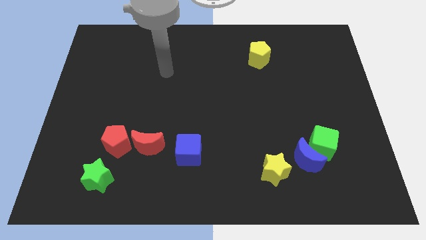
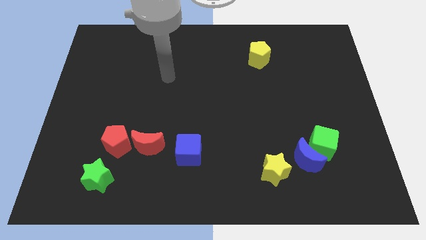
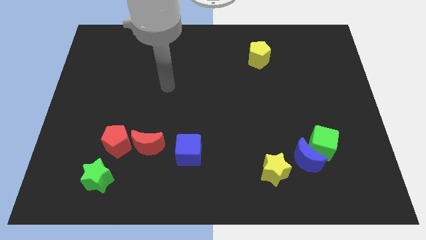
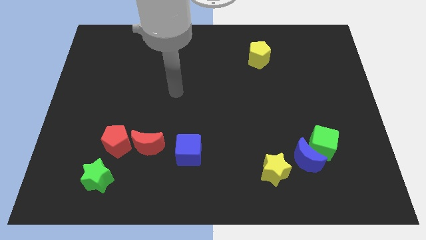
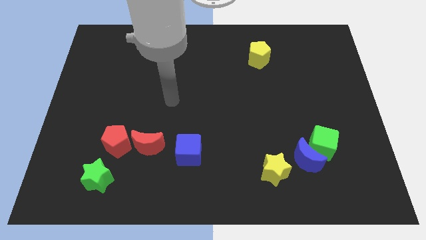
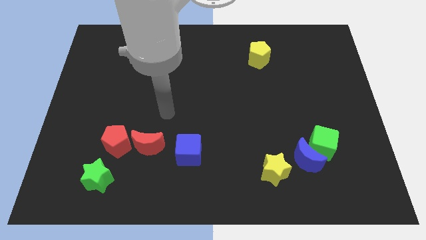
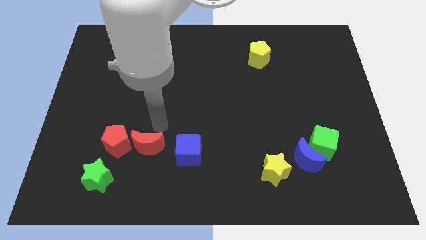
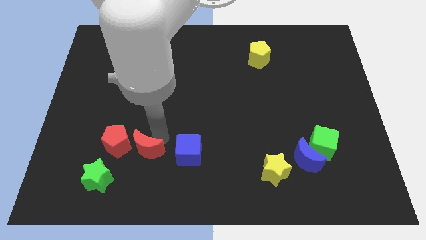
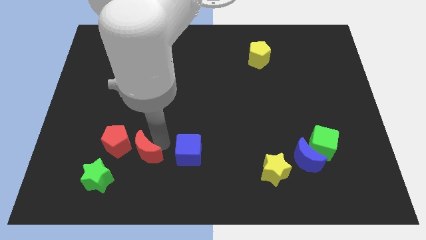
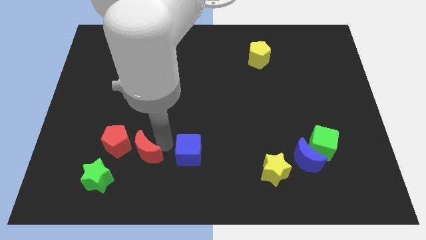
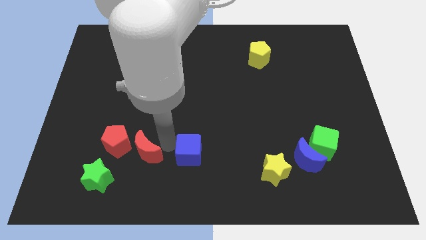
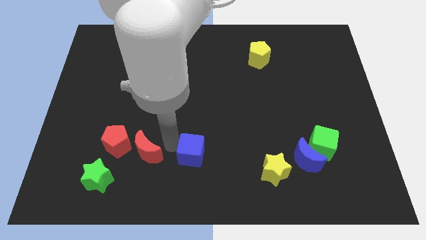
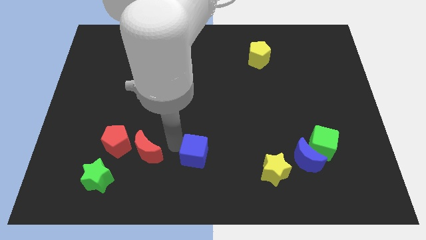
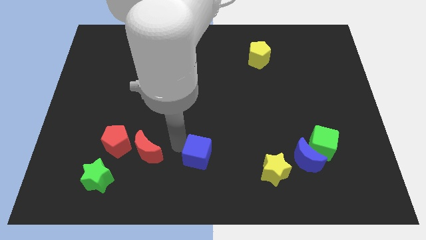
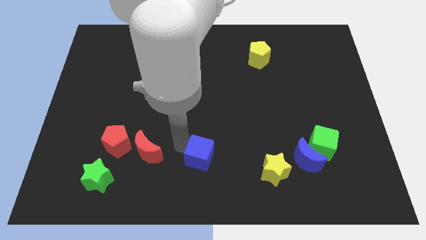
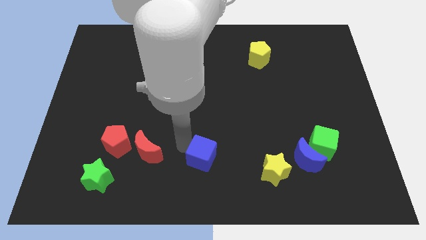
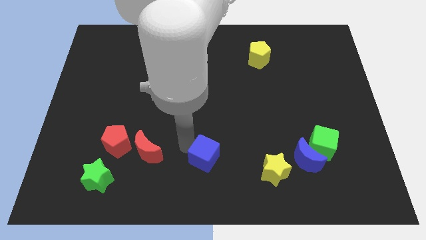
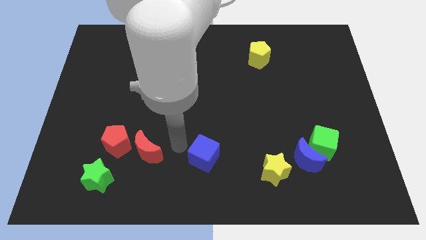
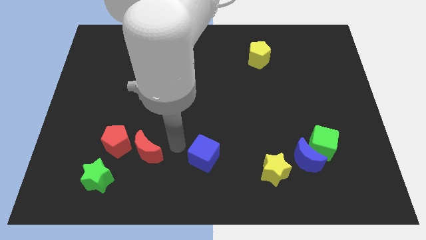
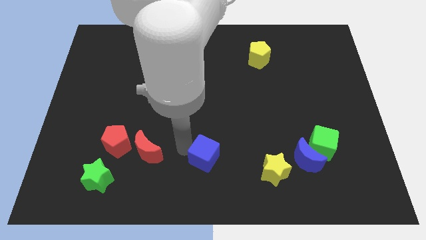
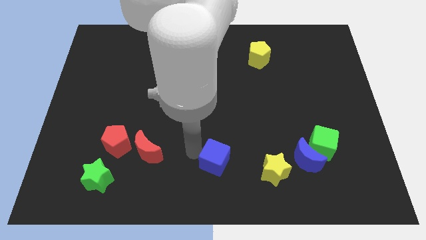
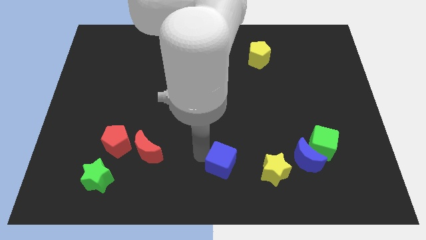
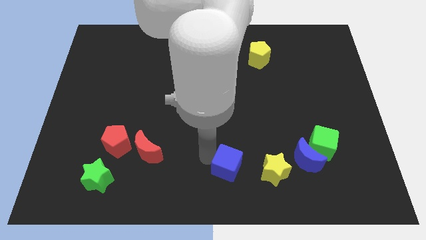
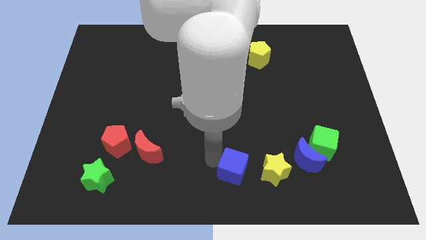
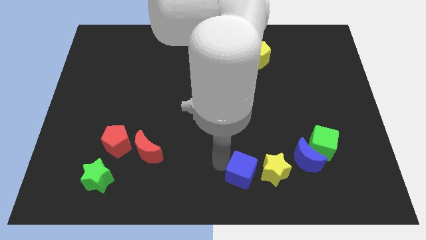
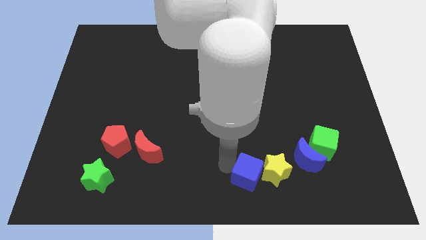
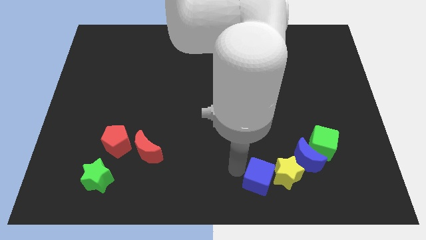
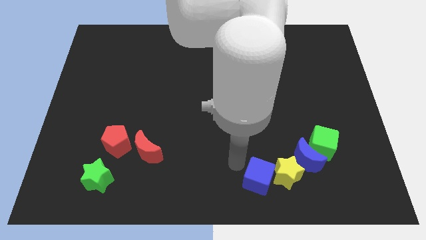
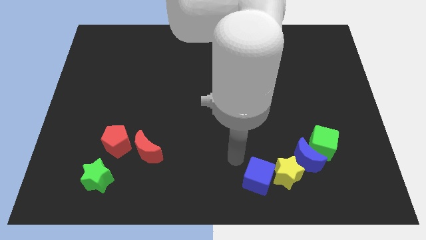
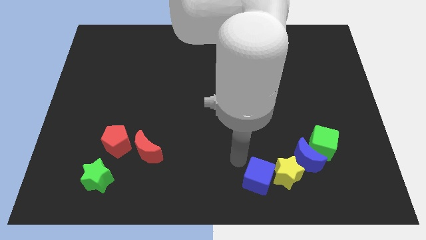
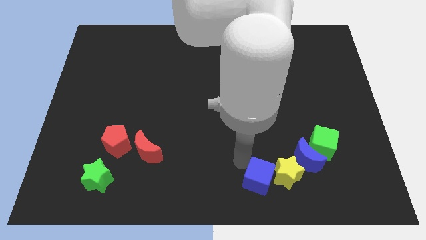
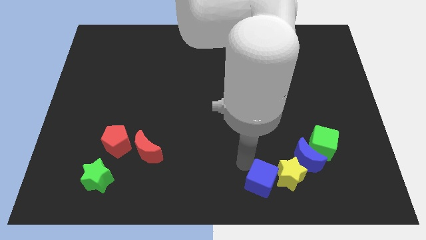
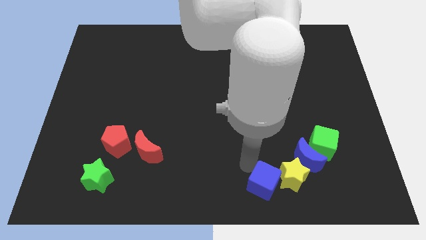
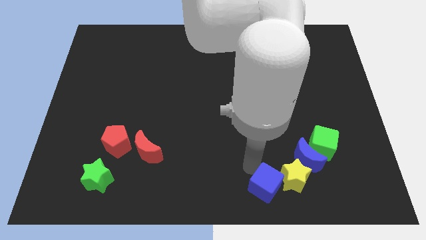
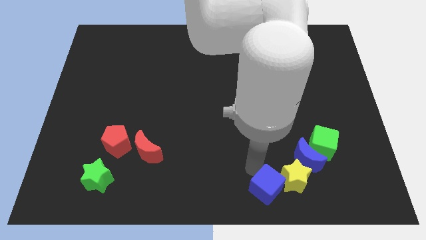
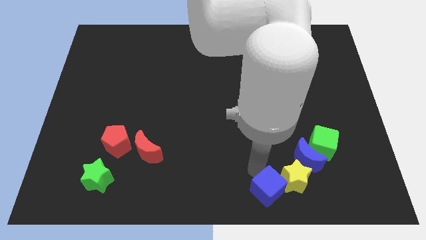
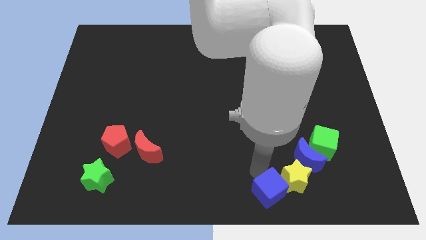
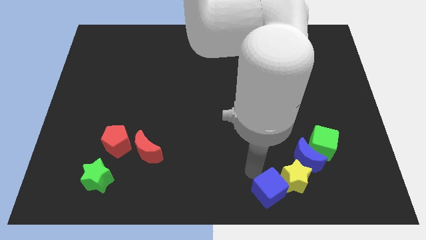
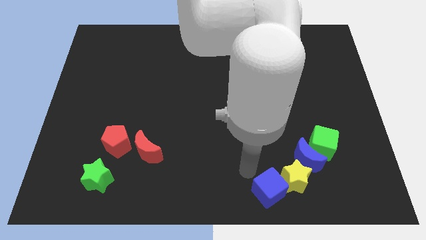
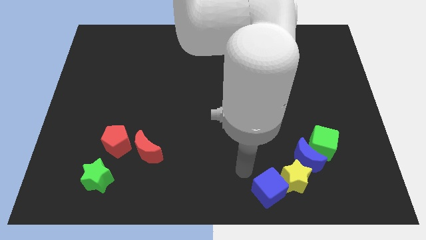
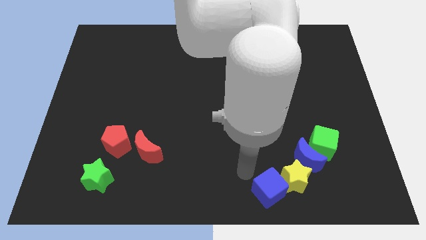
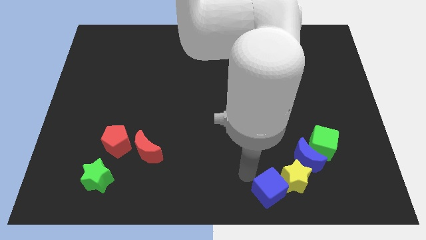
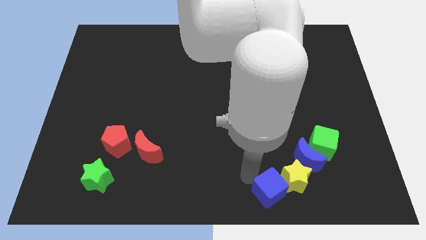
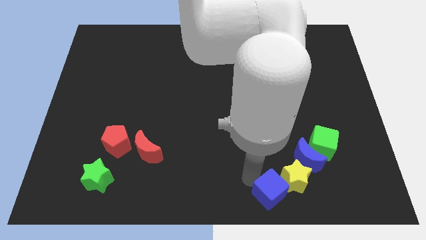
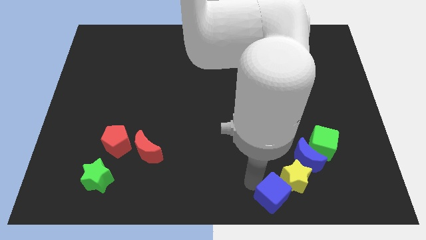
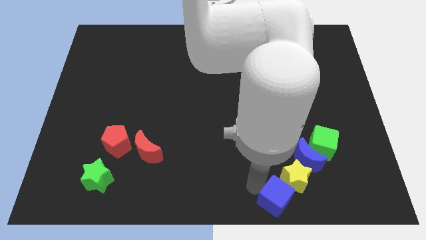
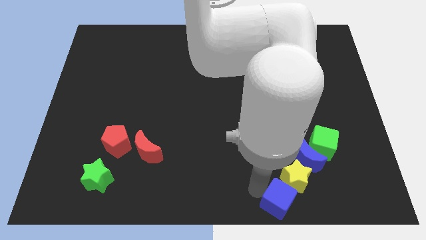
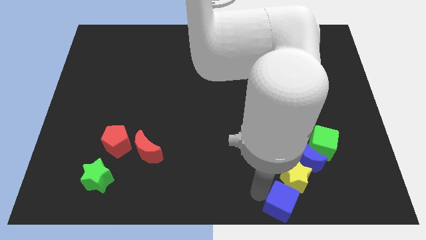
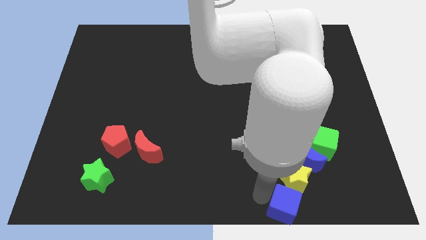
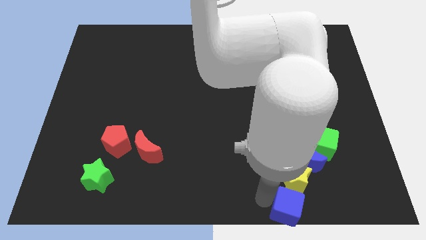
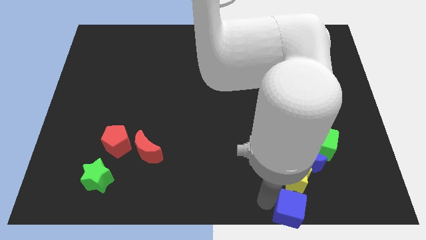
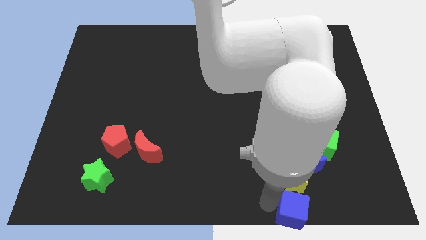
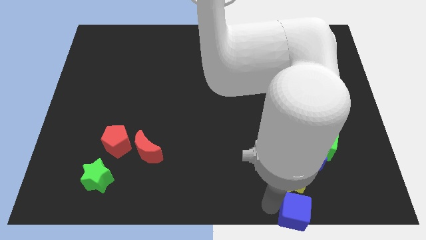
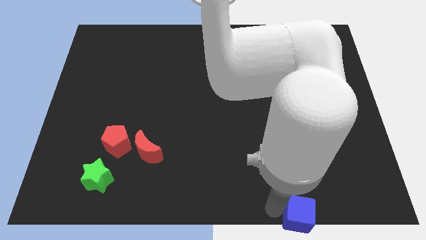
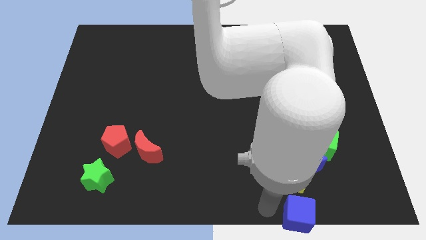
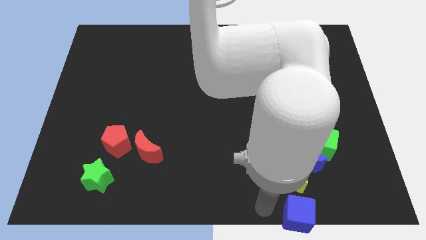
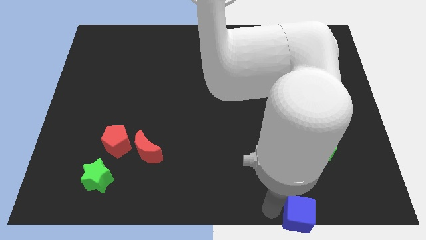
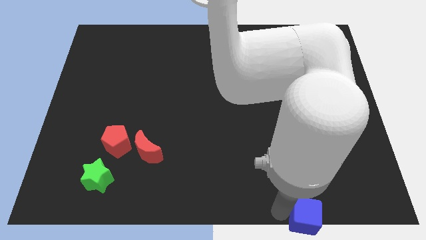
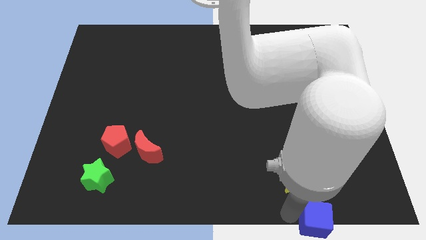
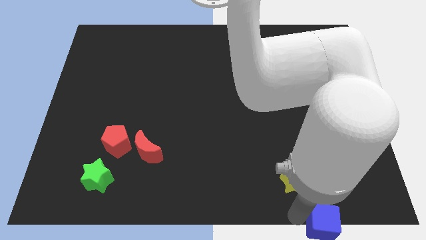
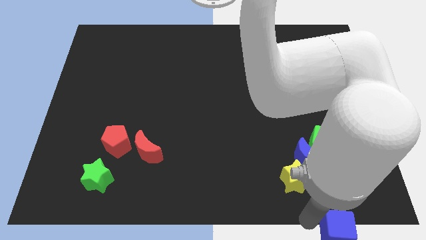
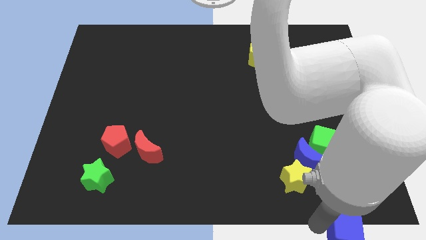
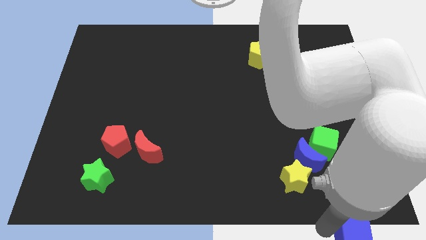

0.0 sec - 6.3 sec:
move the blue cube to the bottom right

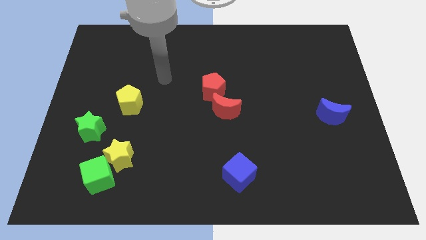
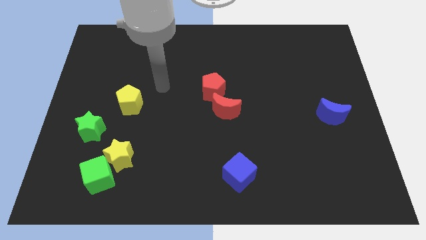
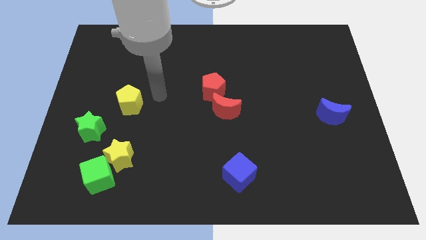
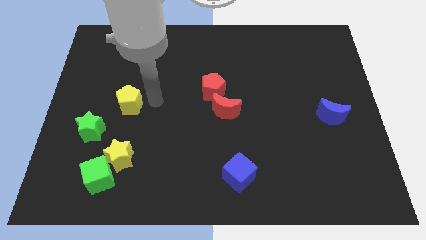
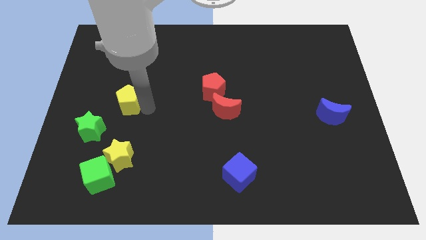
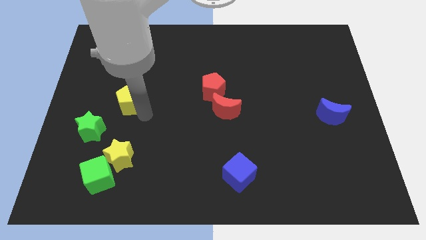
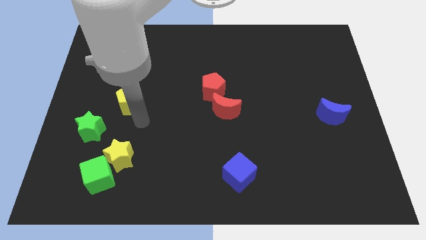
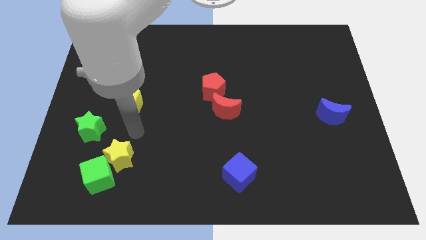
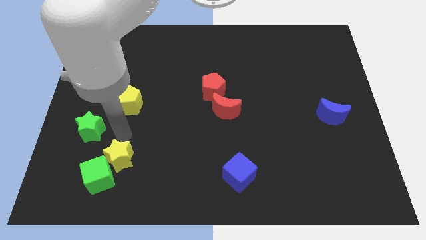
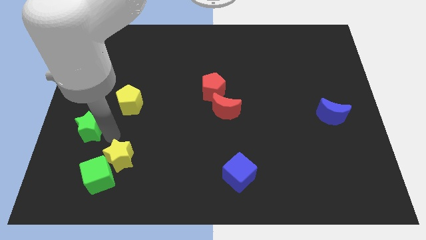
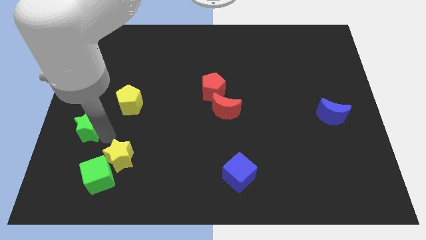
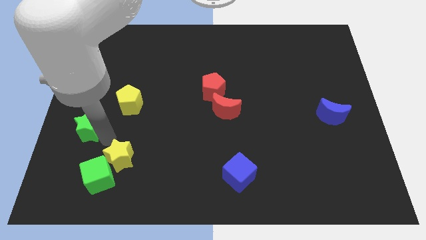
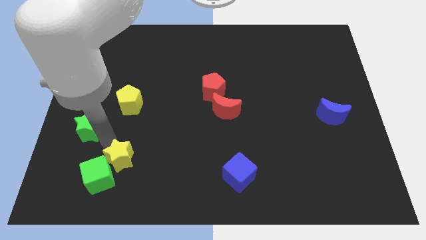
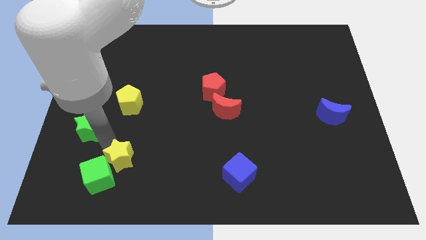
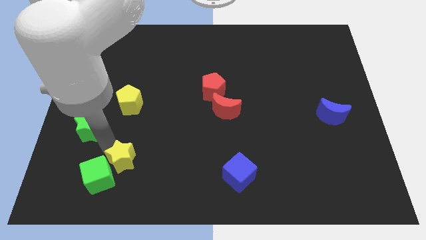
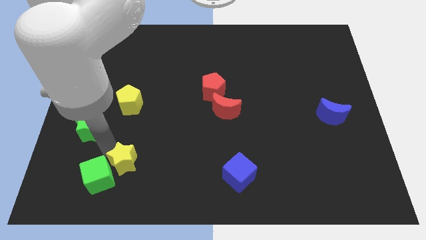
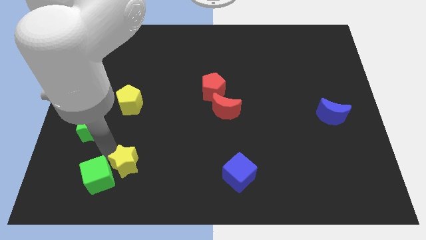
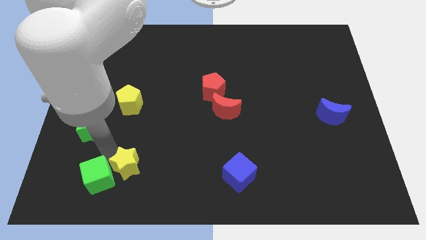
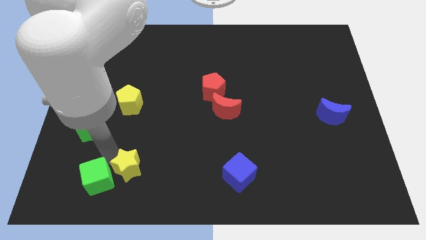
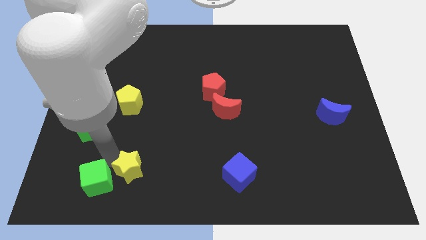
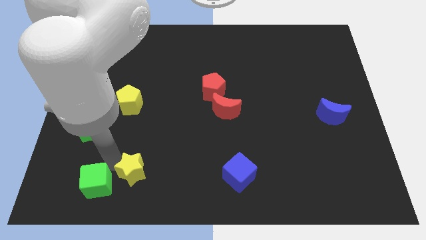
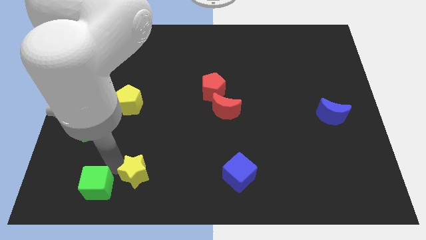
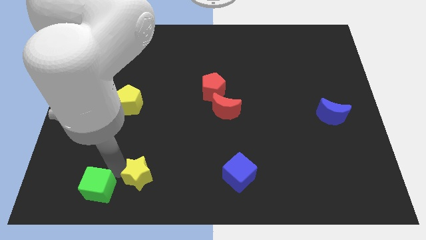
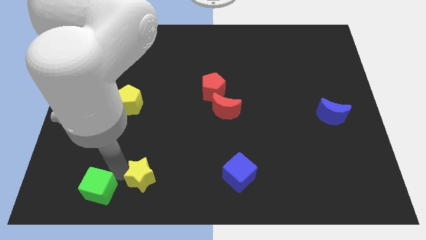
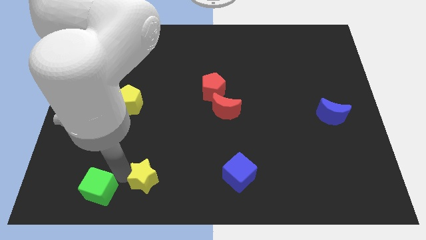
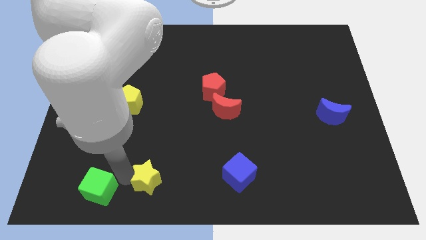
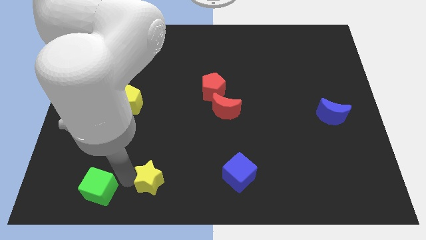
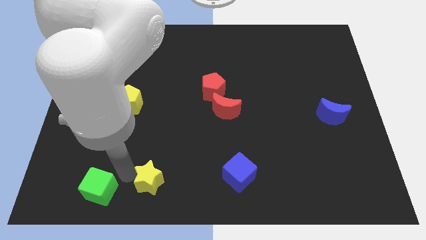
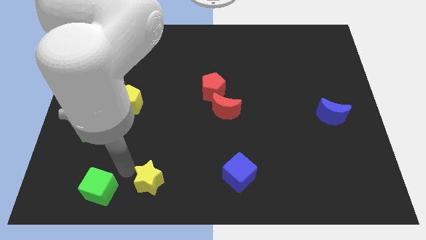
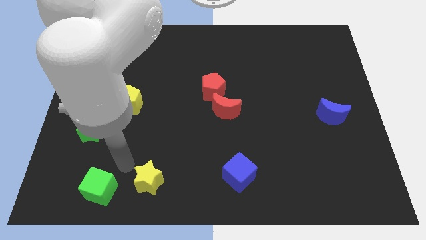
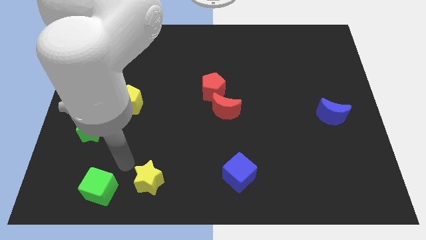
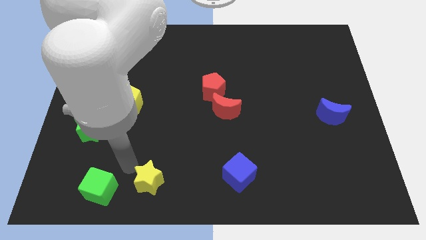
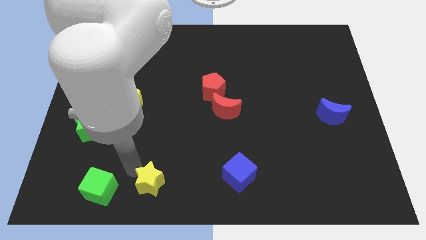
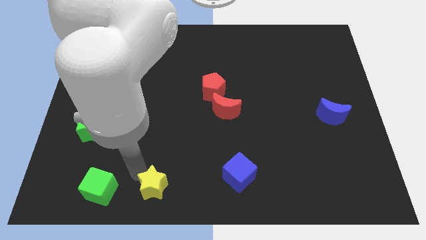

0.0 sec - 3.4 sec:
slide the yellow star to the bottom side
